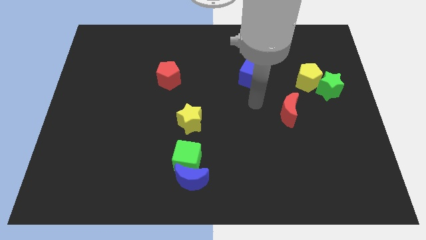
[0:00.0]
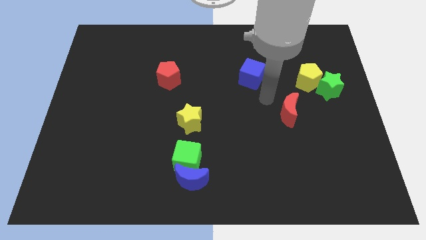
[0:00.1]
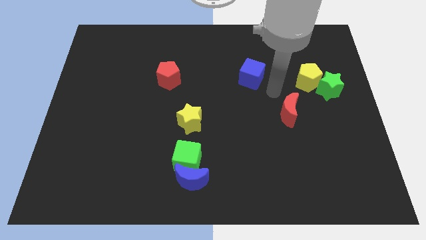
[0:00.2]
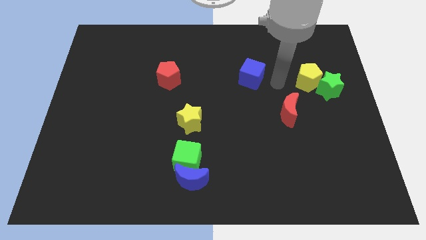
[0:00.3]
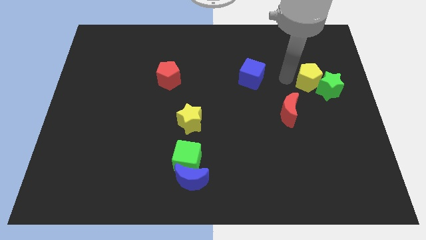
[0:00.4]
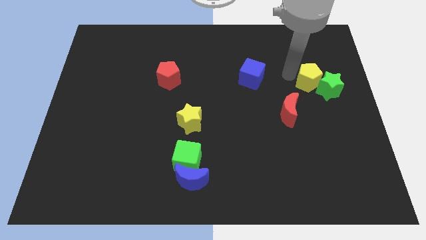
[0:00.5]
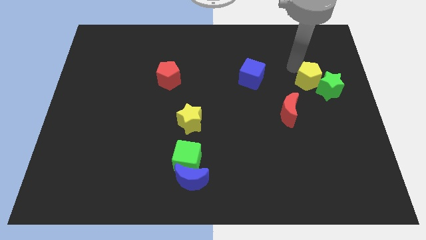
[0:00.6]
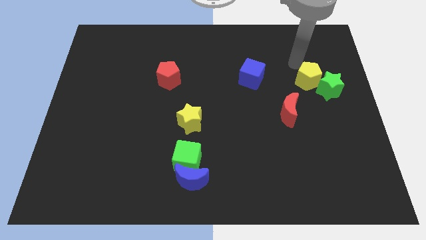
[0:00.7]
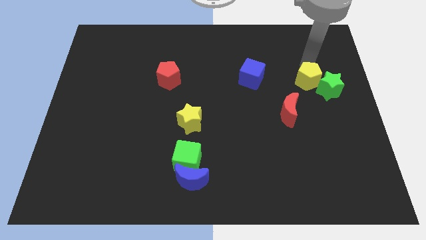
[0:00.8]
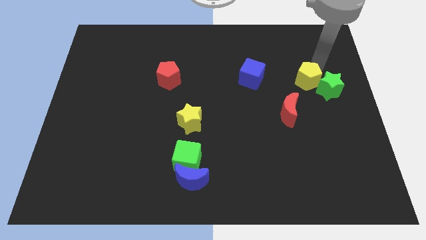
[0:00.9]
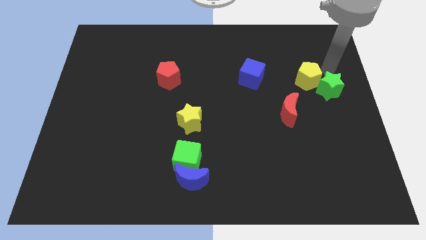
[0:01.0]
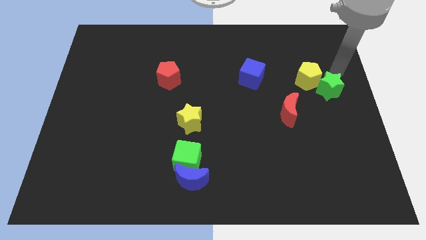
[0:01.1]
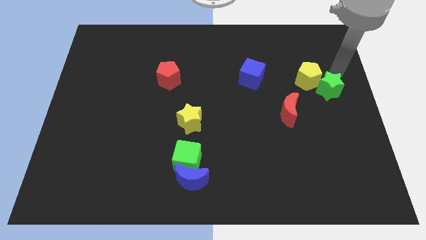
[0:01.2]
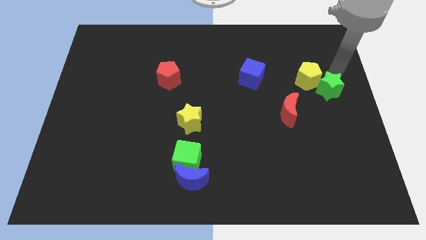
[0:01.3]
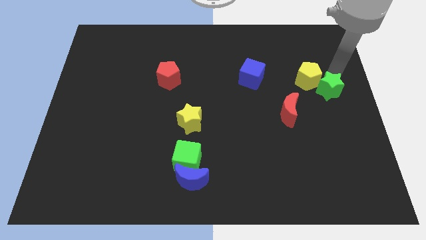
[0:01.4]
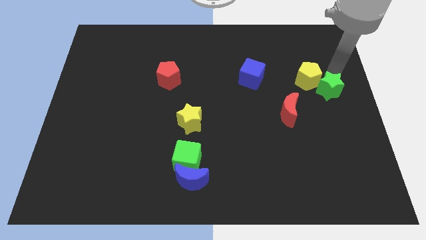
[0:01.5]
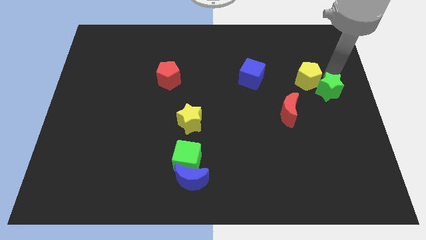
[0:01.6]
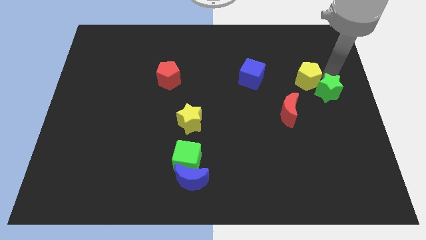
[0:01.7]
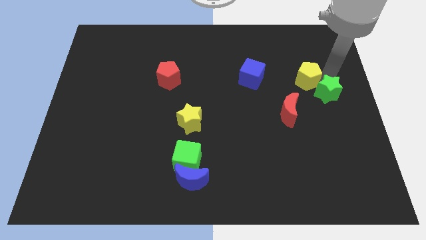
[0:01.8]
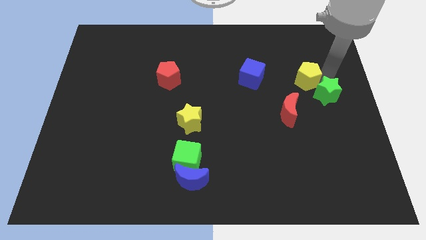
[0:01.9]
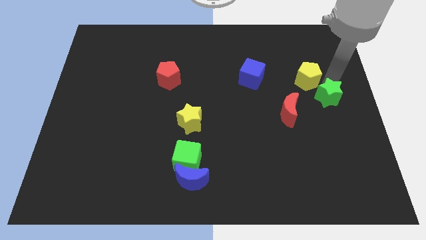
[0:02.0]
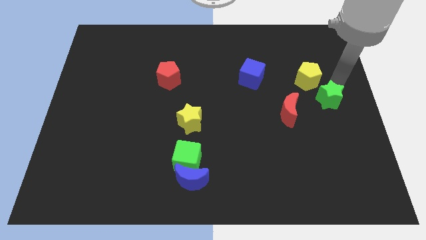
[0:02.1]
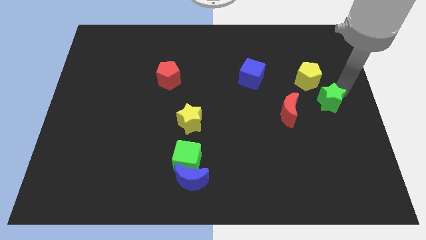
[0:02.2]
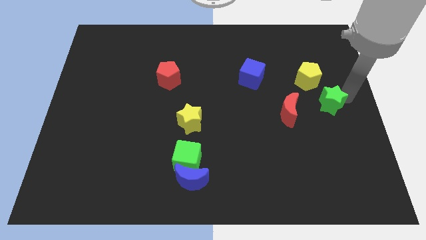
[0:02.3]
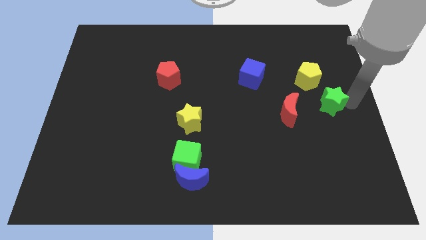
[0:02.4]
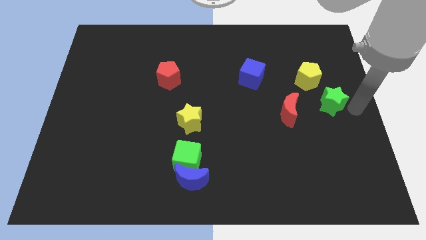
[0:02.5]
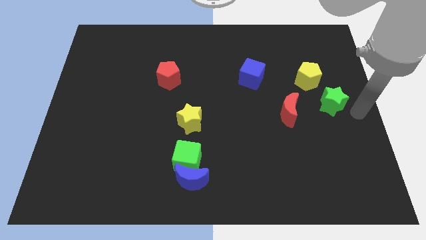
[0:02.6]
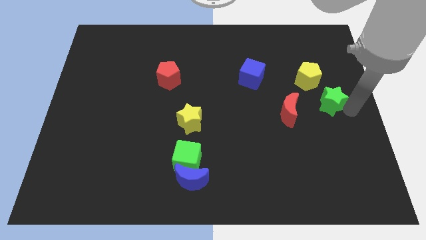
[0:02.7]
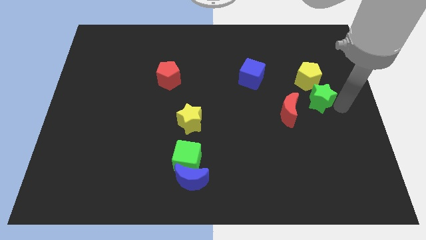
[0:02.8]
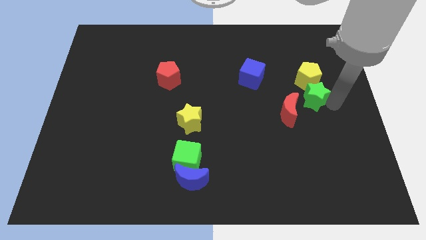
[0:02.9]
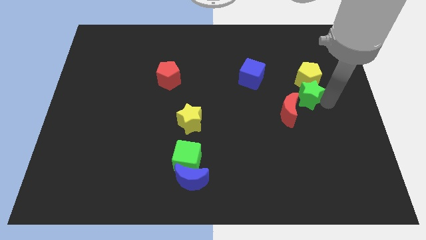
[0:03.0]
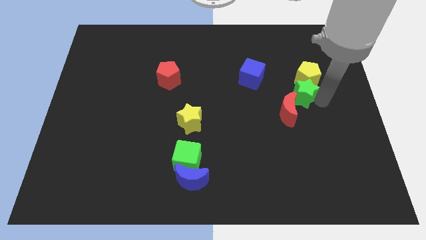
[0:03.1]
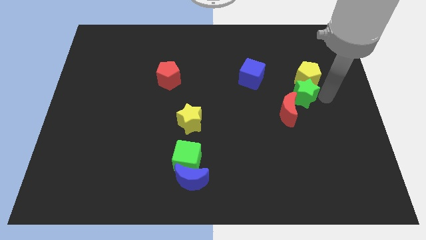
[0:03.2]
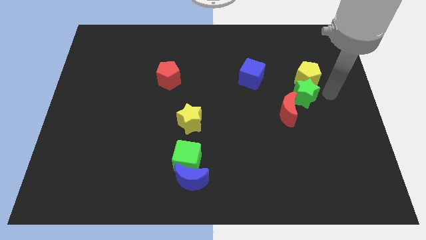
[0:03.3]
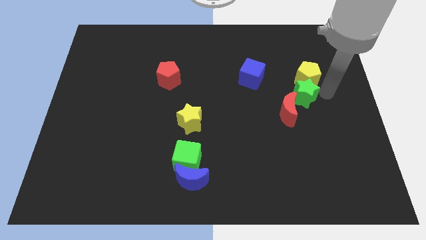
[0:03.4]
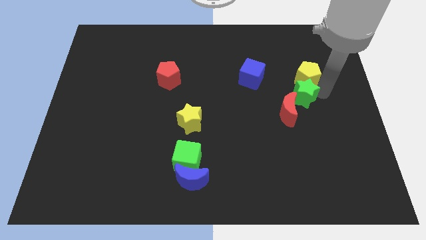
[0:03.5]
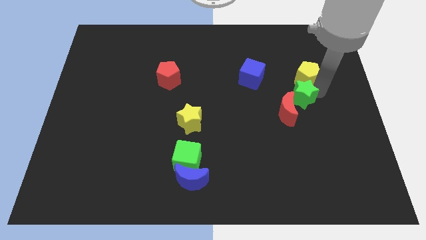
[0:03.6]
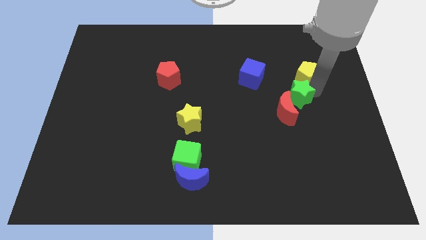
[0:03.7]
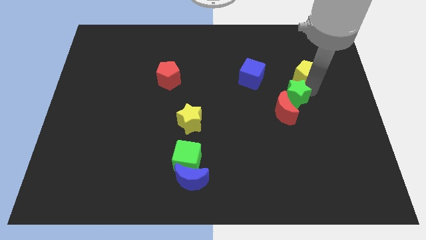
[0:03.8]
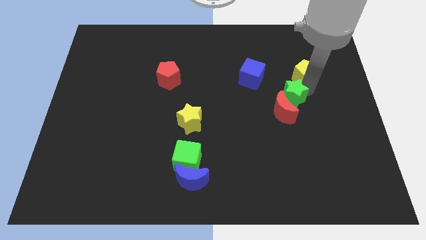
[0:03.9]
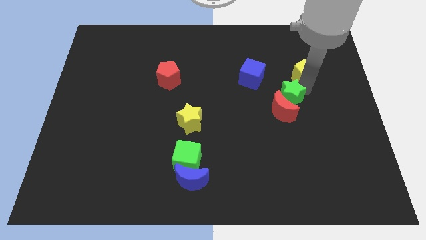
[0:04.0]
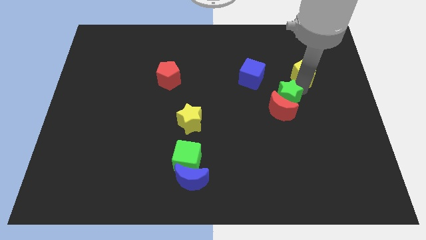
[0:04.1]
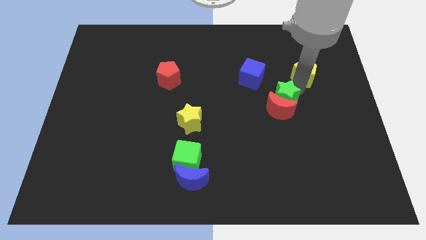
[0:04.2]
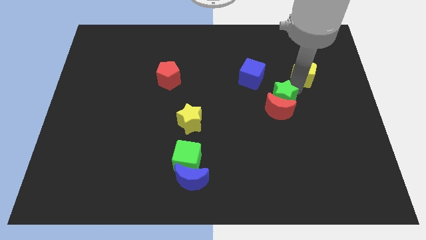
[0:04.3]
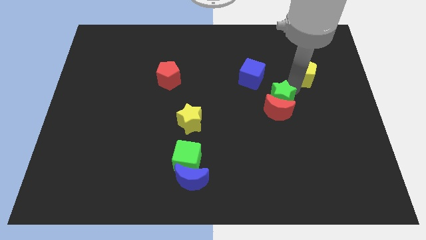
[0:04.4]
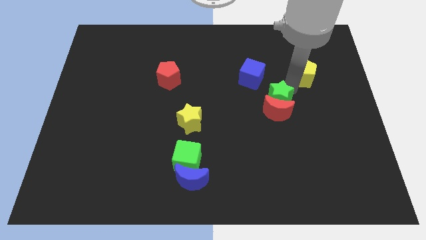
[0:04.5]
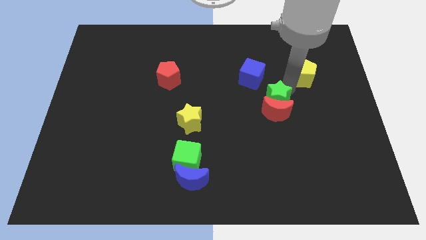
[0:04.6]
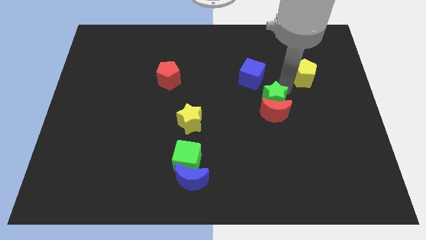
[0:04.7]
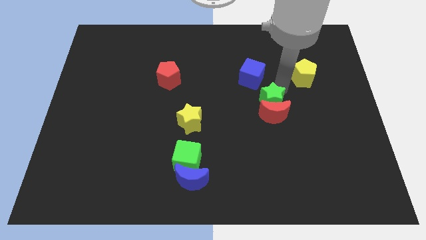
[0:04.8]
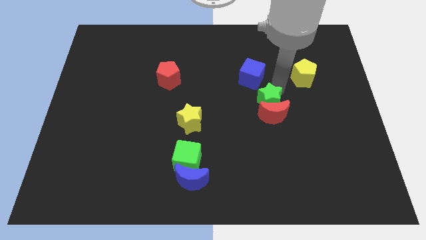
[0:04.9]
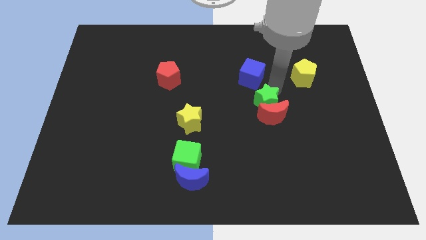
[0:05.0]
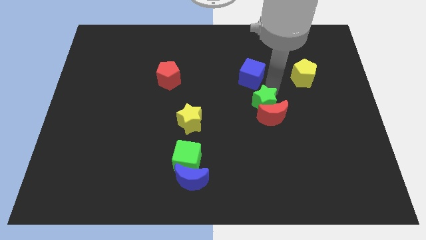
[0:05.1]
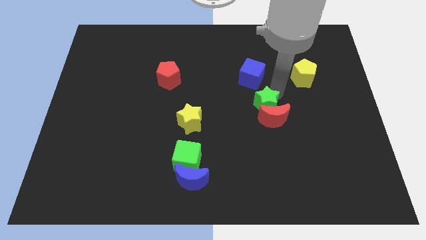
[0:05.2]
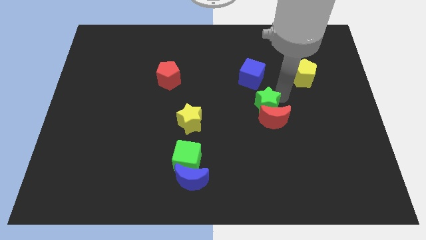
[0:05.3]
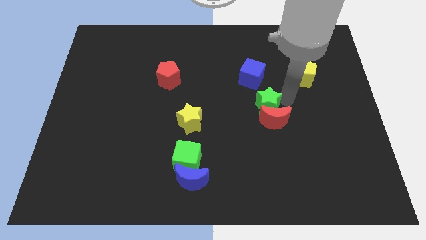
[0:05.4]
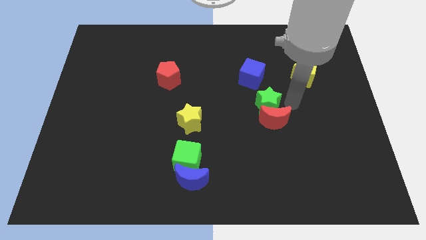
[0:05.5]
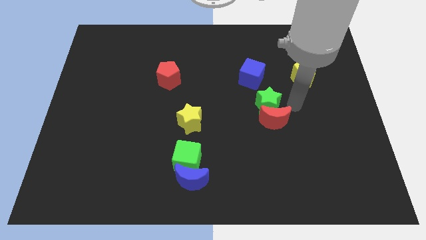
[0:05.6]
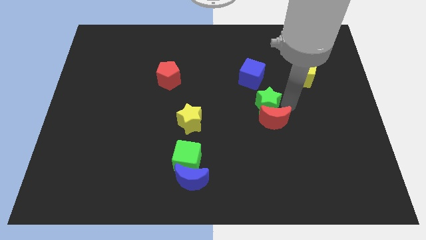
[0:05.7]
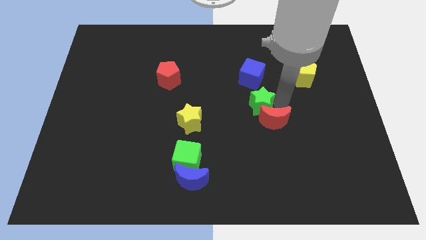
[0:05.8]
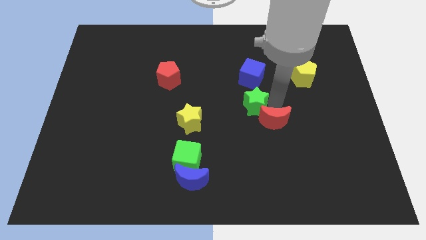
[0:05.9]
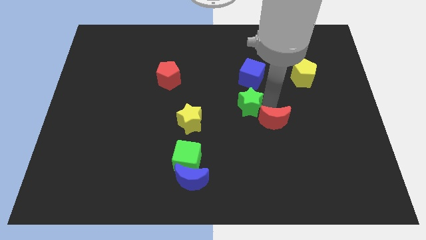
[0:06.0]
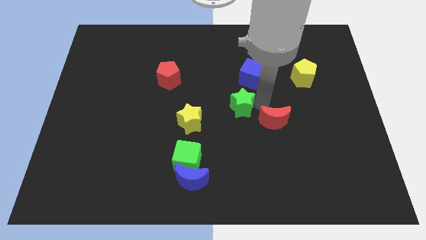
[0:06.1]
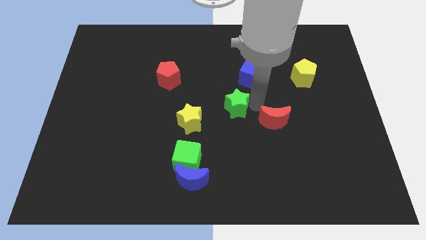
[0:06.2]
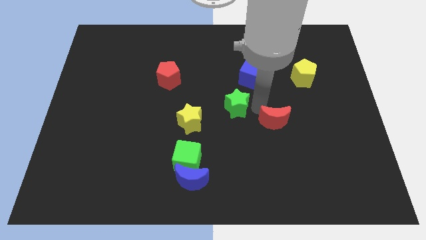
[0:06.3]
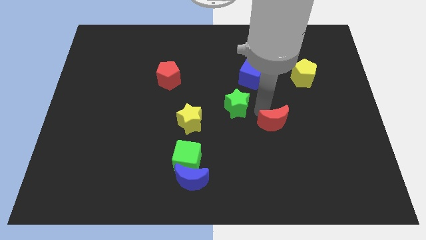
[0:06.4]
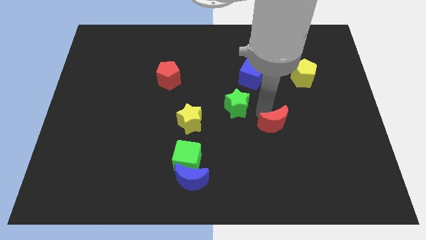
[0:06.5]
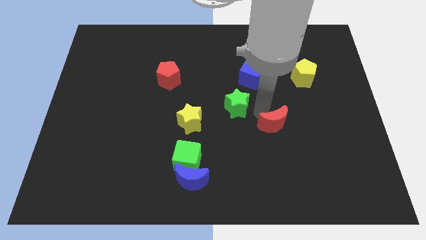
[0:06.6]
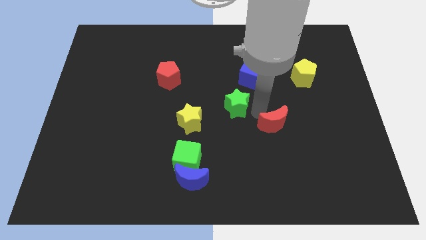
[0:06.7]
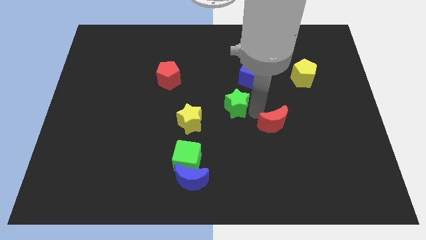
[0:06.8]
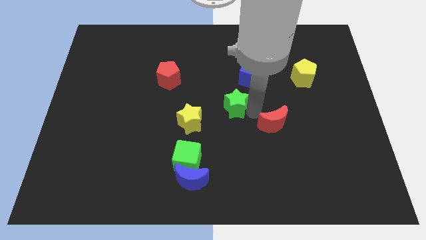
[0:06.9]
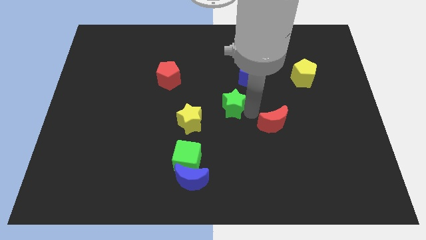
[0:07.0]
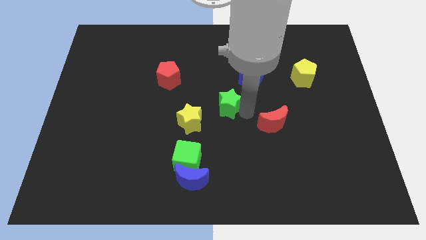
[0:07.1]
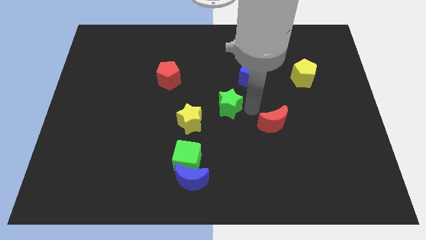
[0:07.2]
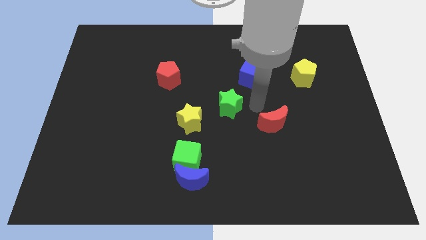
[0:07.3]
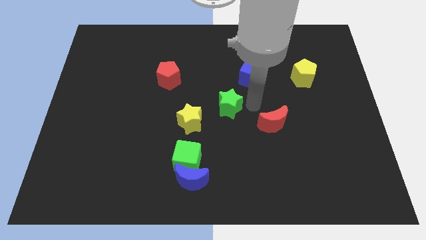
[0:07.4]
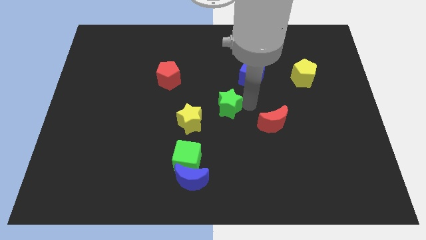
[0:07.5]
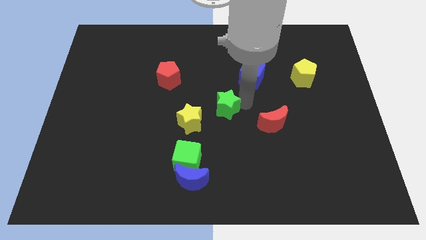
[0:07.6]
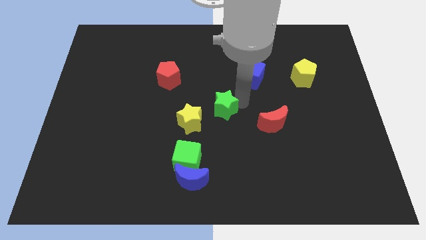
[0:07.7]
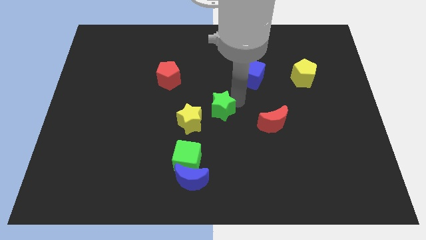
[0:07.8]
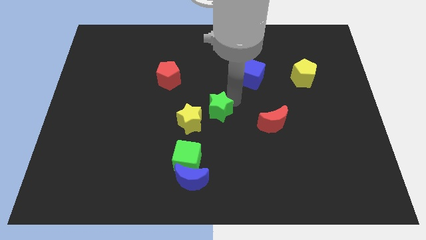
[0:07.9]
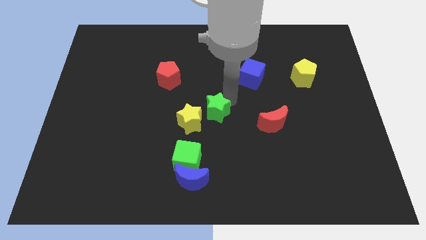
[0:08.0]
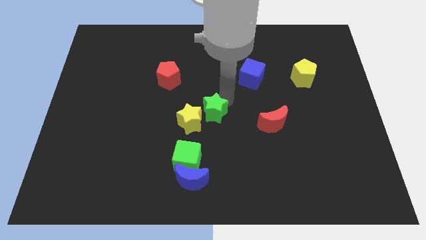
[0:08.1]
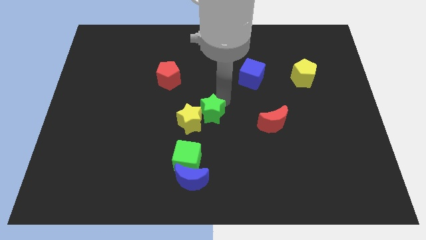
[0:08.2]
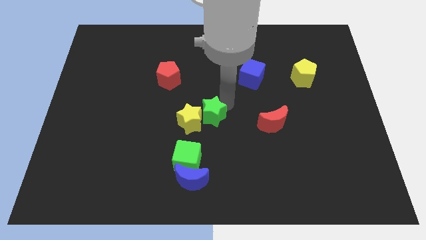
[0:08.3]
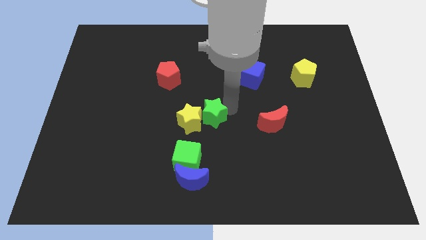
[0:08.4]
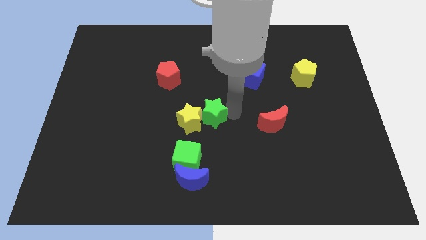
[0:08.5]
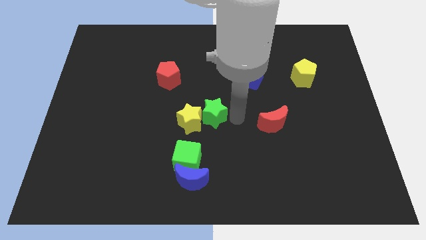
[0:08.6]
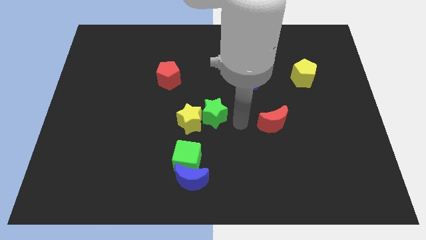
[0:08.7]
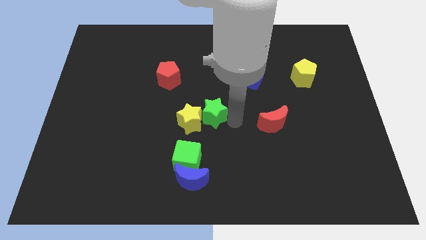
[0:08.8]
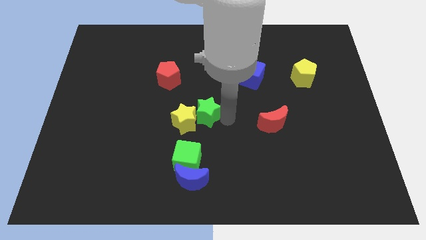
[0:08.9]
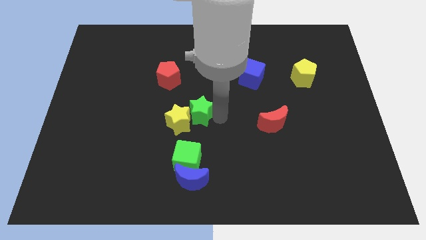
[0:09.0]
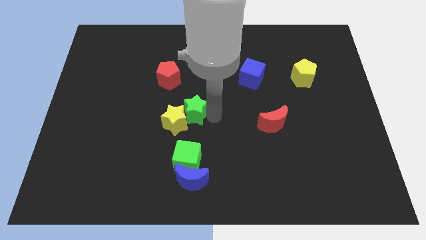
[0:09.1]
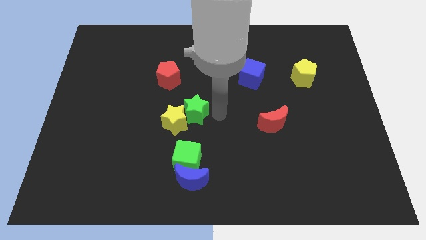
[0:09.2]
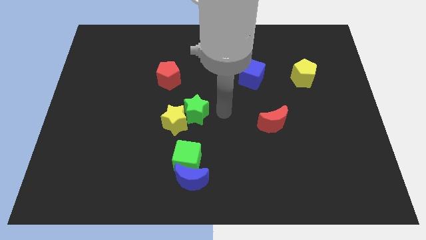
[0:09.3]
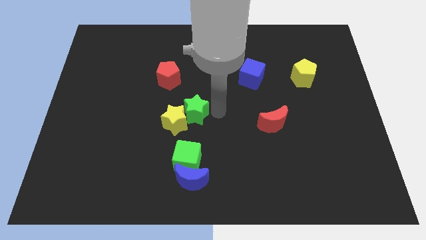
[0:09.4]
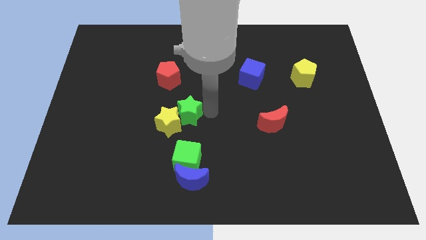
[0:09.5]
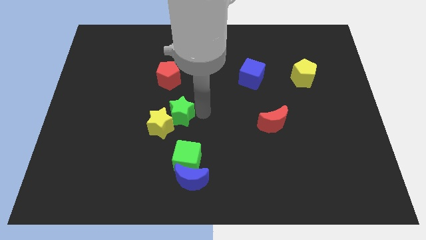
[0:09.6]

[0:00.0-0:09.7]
slide the green star below the red pentagon
